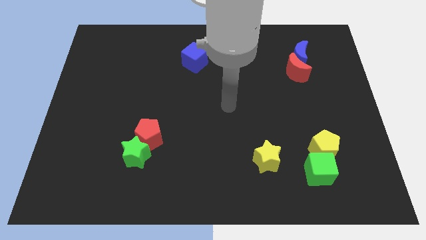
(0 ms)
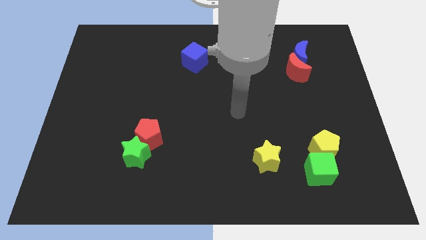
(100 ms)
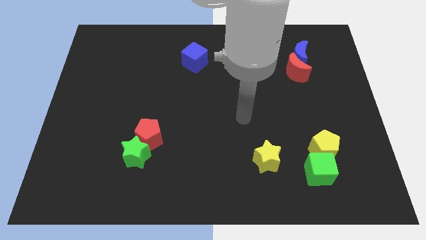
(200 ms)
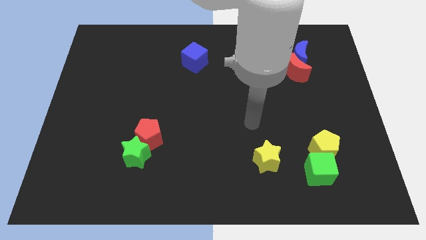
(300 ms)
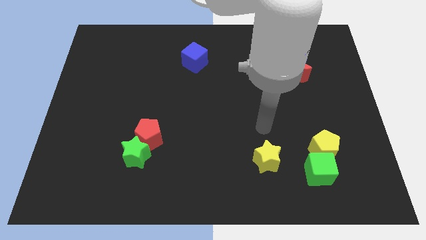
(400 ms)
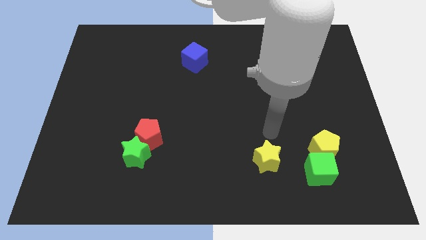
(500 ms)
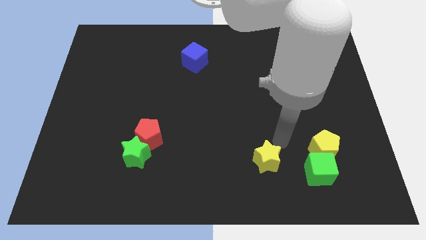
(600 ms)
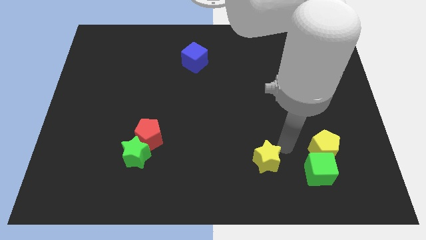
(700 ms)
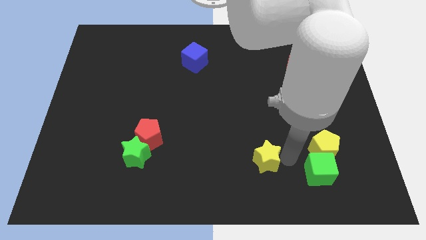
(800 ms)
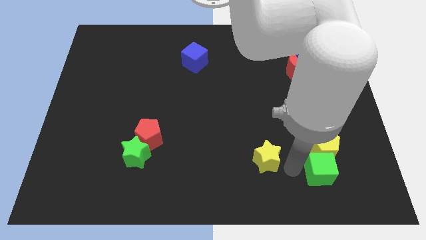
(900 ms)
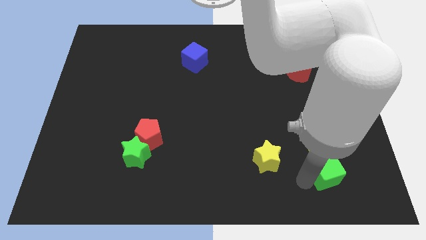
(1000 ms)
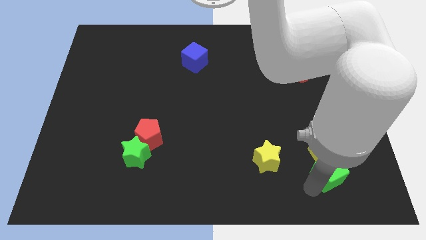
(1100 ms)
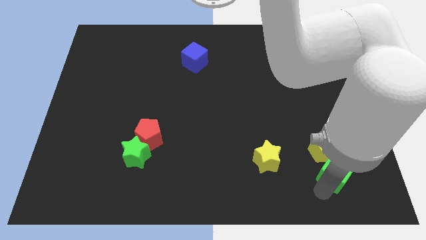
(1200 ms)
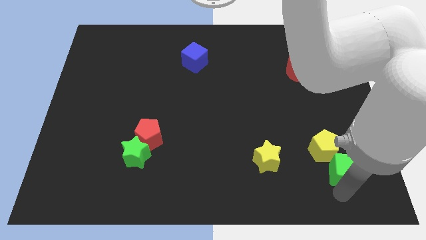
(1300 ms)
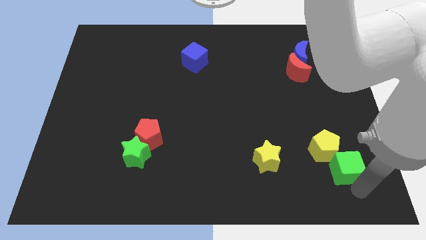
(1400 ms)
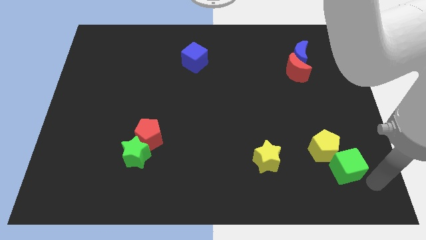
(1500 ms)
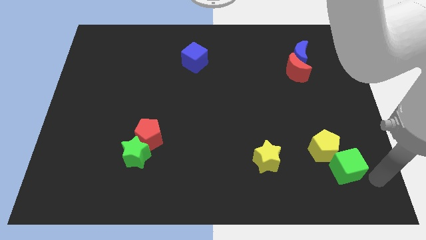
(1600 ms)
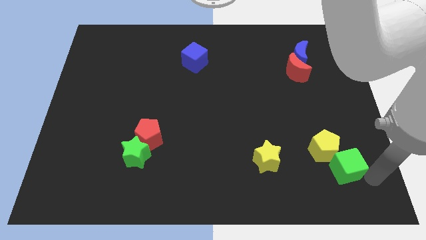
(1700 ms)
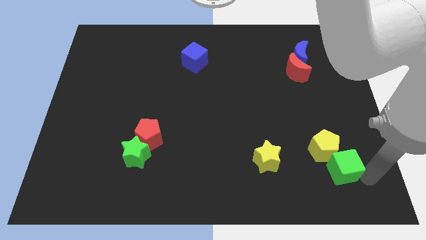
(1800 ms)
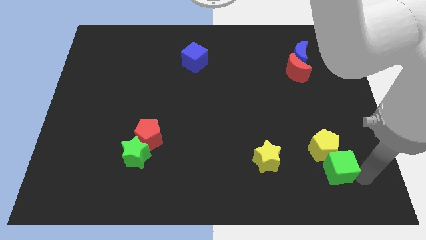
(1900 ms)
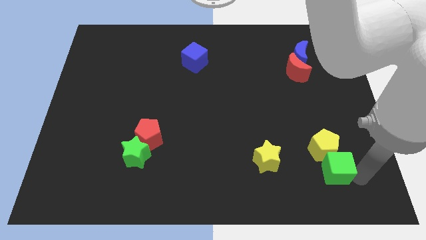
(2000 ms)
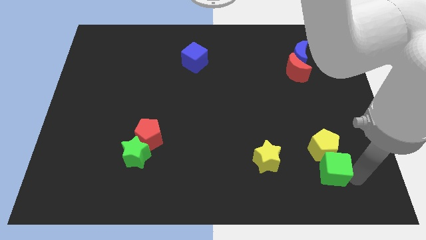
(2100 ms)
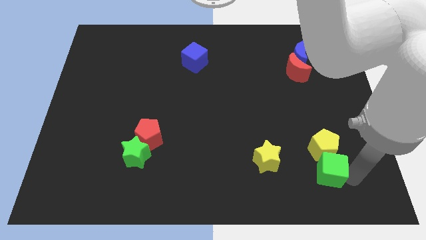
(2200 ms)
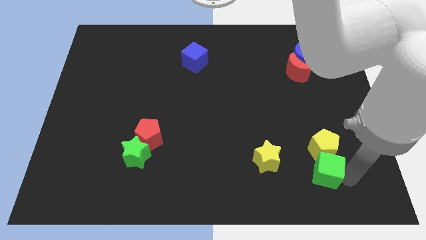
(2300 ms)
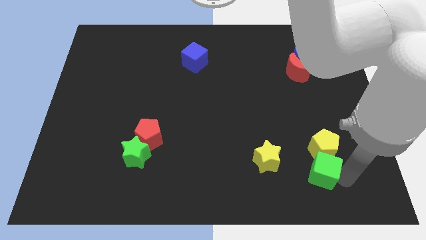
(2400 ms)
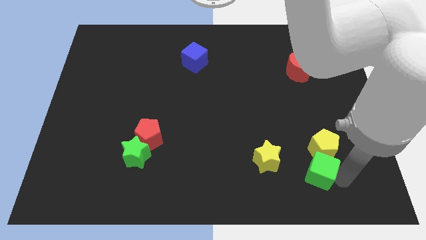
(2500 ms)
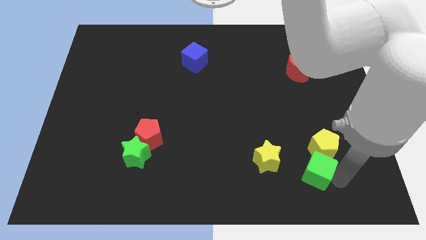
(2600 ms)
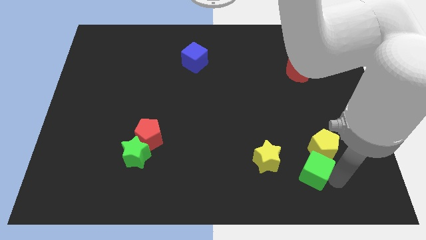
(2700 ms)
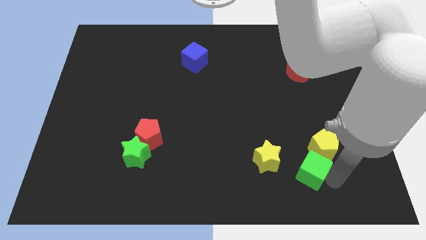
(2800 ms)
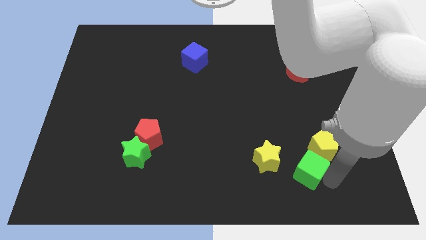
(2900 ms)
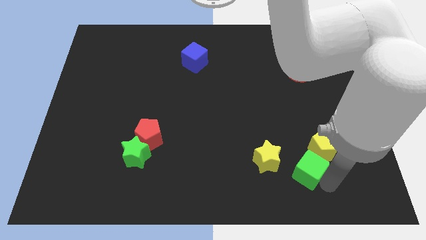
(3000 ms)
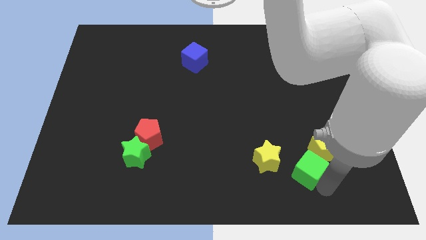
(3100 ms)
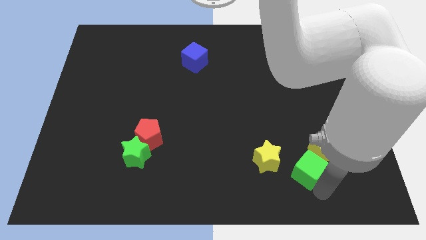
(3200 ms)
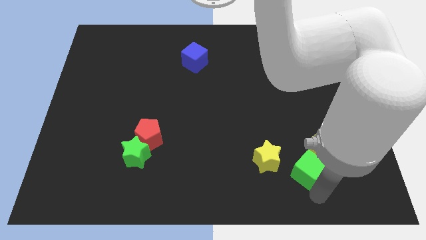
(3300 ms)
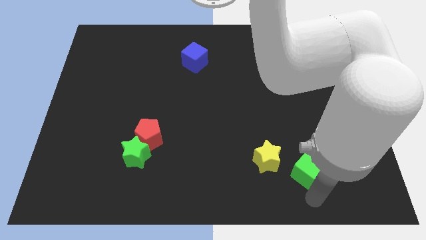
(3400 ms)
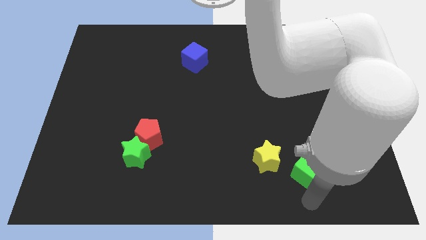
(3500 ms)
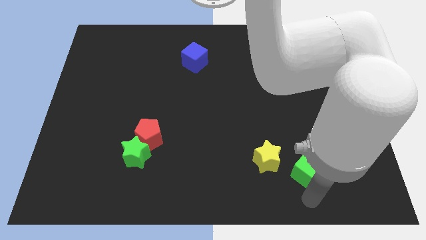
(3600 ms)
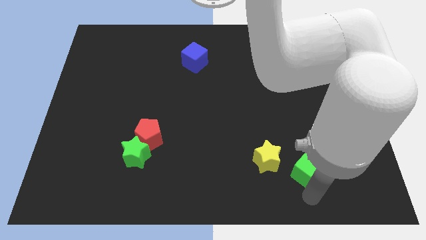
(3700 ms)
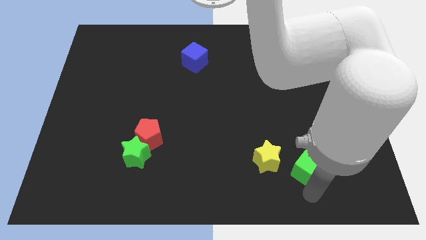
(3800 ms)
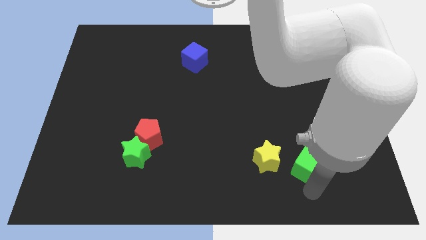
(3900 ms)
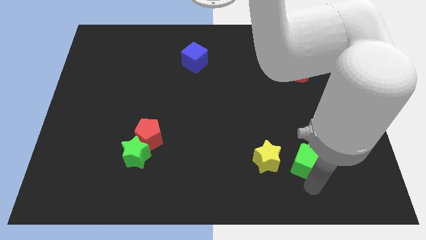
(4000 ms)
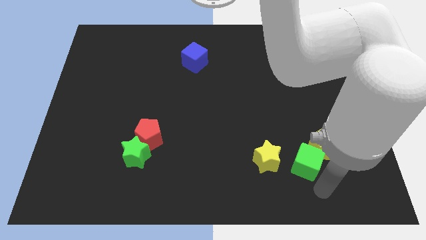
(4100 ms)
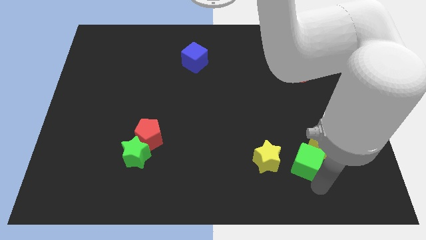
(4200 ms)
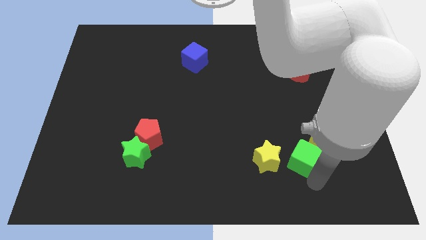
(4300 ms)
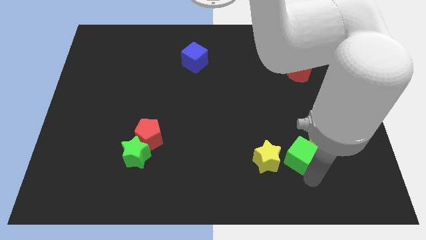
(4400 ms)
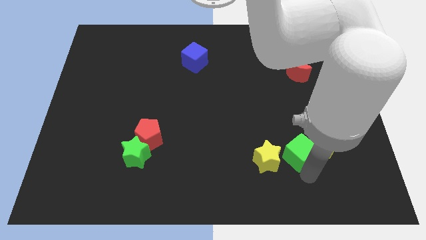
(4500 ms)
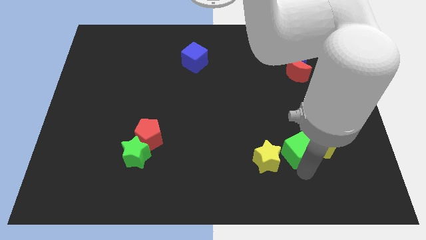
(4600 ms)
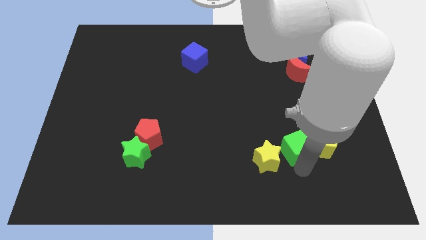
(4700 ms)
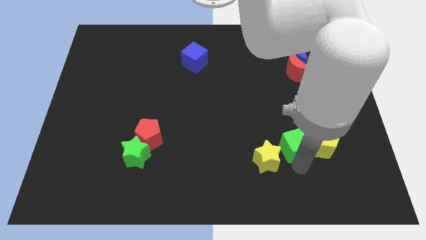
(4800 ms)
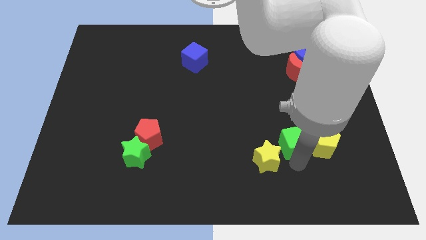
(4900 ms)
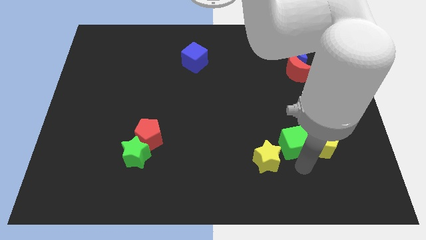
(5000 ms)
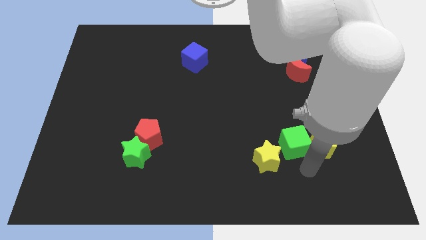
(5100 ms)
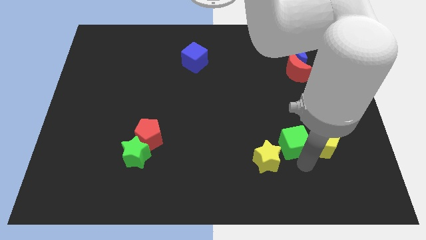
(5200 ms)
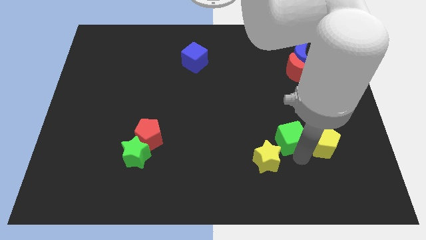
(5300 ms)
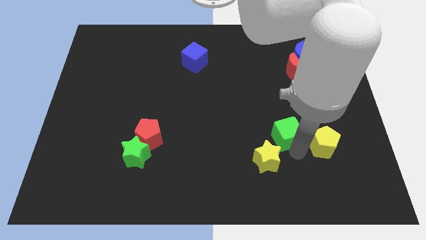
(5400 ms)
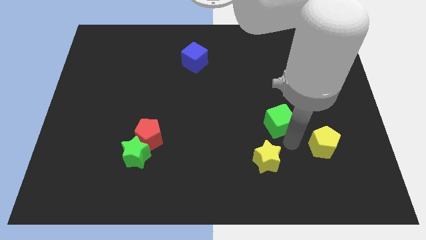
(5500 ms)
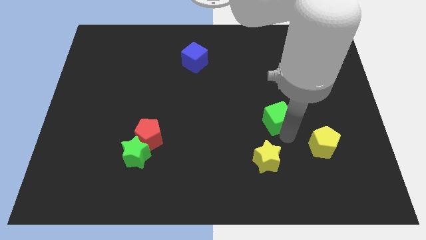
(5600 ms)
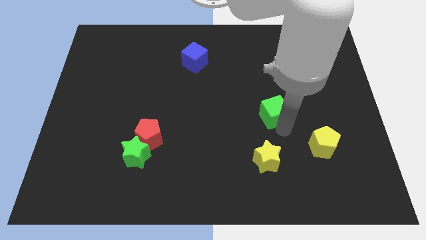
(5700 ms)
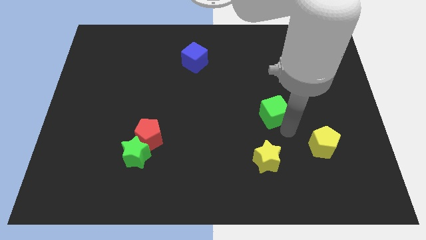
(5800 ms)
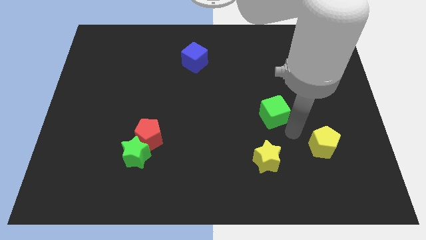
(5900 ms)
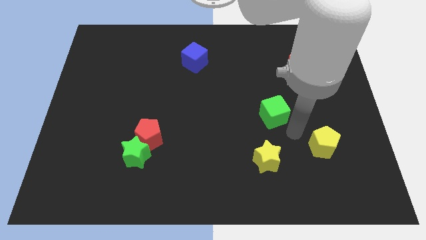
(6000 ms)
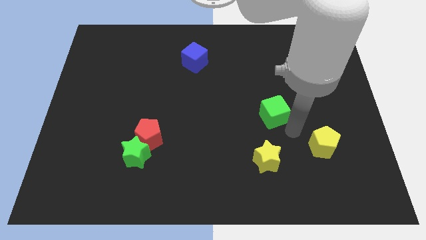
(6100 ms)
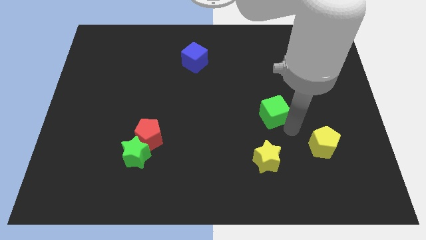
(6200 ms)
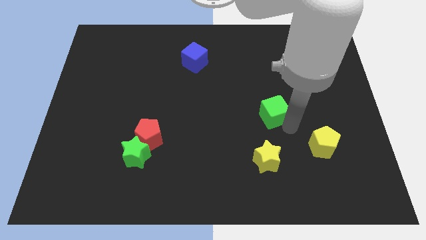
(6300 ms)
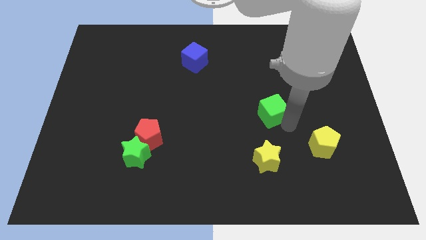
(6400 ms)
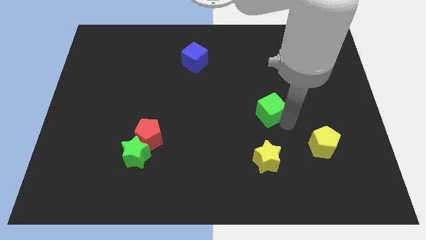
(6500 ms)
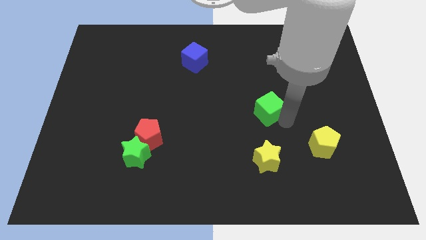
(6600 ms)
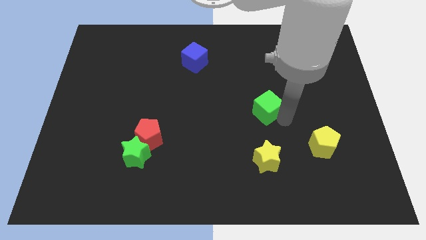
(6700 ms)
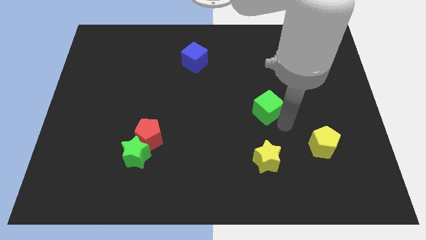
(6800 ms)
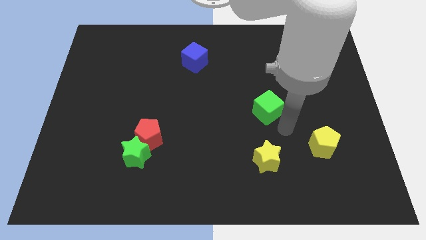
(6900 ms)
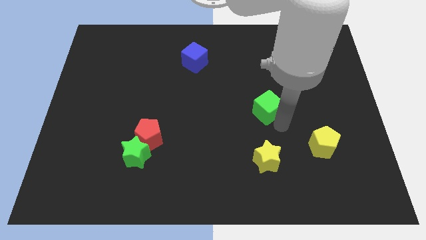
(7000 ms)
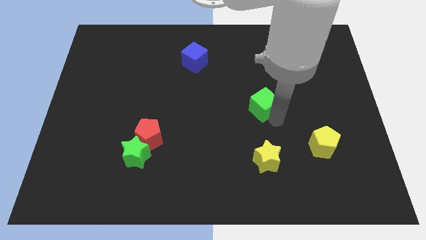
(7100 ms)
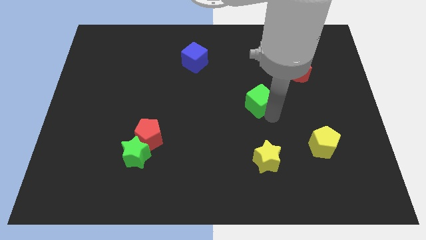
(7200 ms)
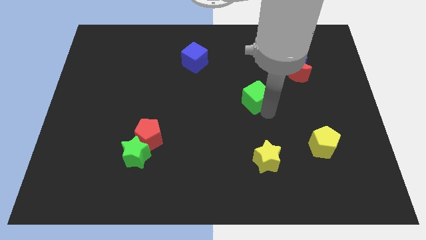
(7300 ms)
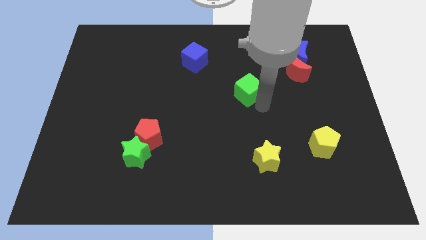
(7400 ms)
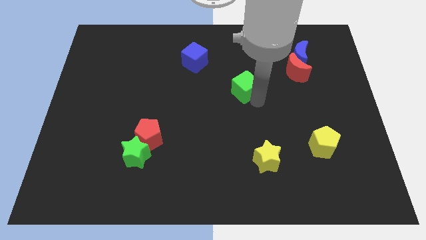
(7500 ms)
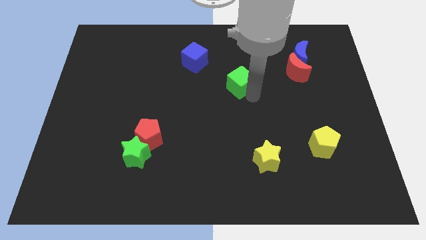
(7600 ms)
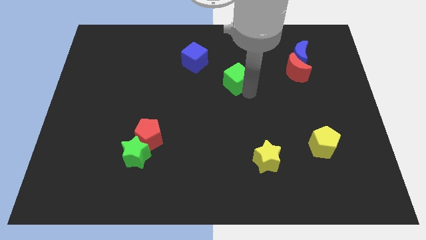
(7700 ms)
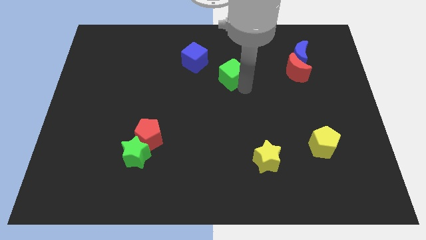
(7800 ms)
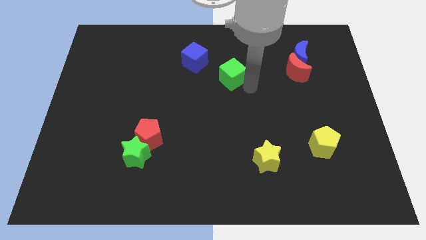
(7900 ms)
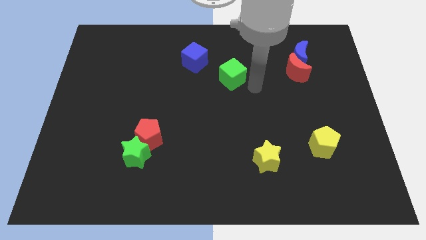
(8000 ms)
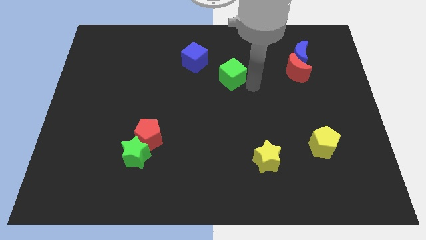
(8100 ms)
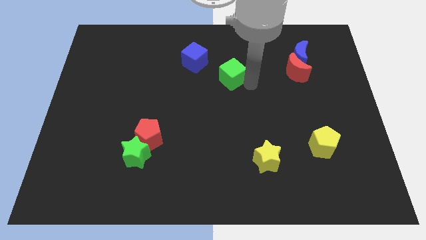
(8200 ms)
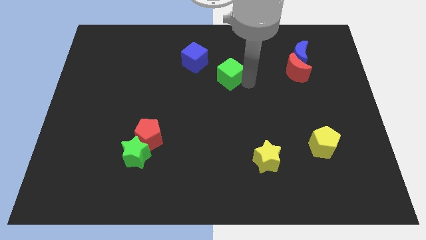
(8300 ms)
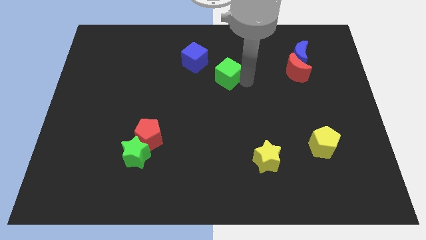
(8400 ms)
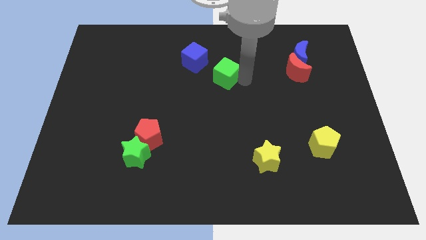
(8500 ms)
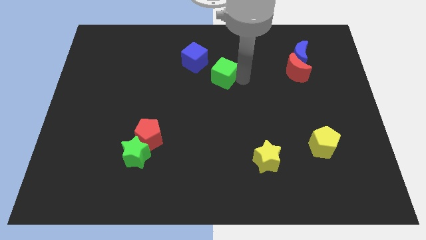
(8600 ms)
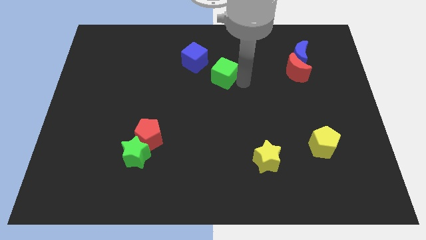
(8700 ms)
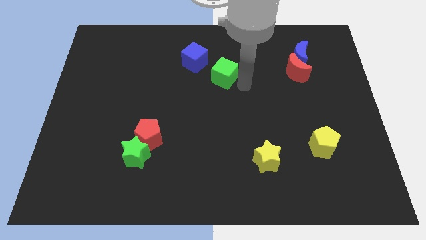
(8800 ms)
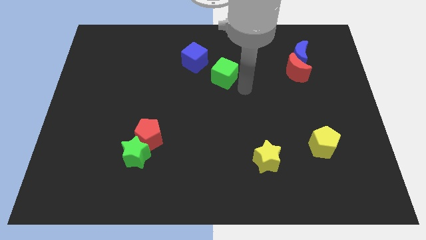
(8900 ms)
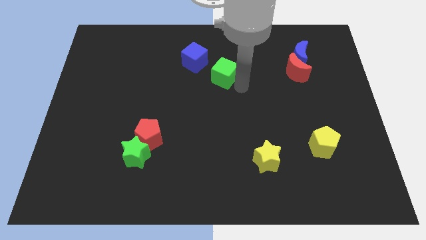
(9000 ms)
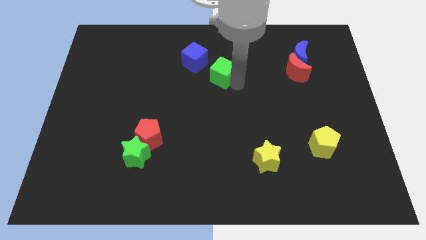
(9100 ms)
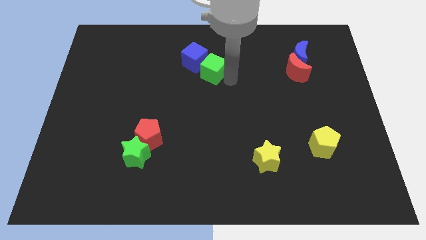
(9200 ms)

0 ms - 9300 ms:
put the green cube close to the blue cube
